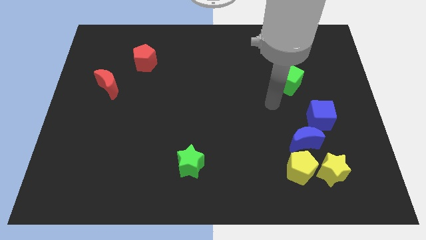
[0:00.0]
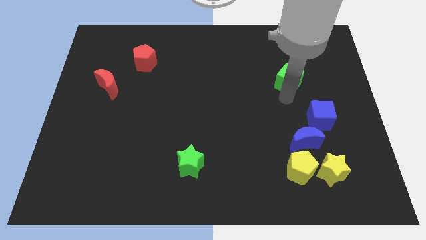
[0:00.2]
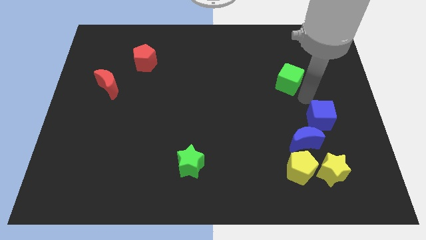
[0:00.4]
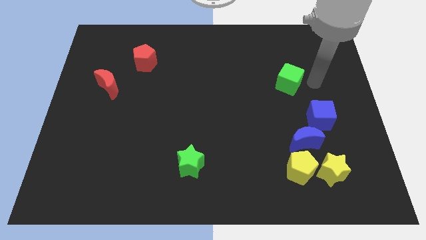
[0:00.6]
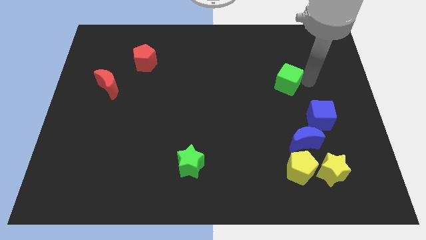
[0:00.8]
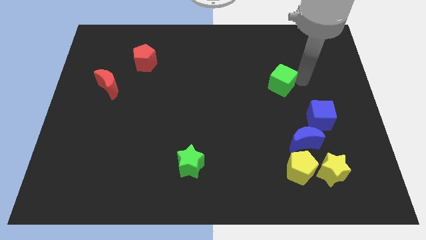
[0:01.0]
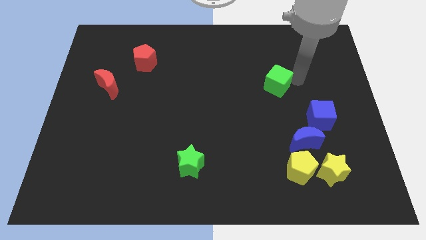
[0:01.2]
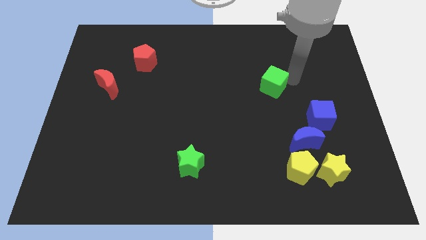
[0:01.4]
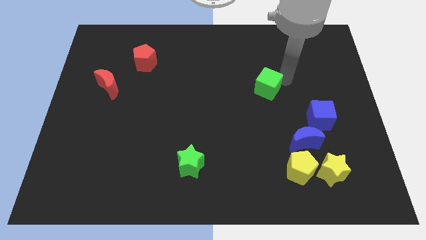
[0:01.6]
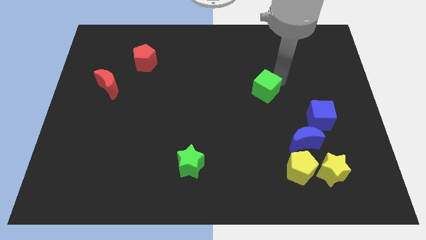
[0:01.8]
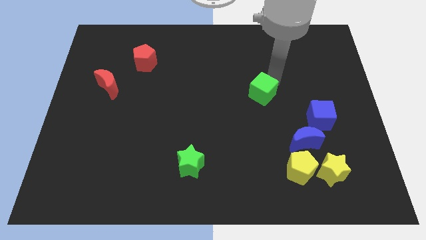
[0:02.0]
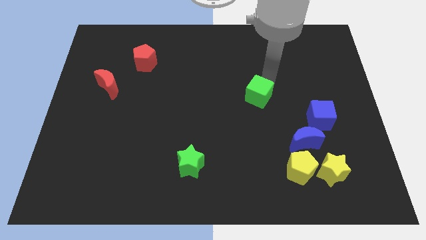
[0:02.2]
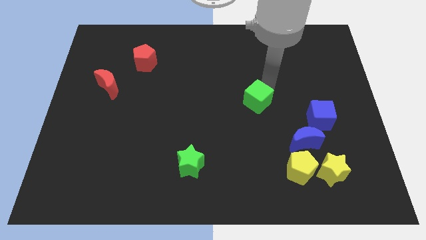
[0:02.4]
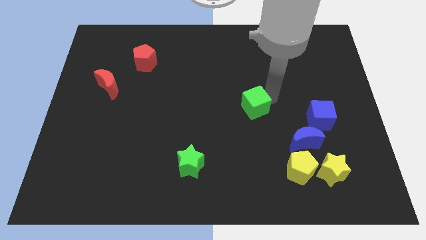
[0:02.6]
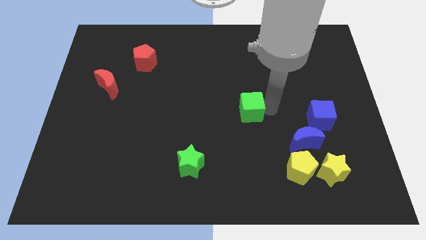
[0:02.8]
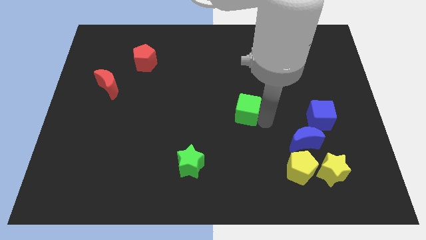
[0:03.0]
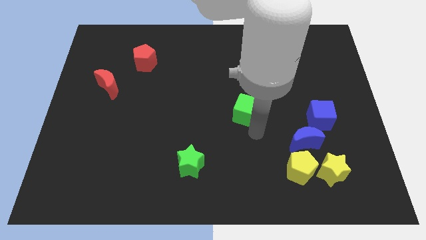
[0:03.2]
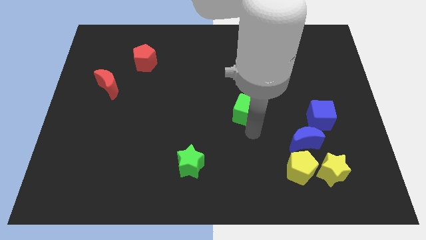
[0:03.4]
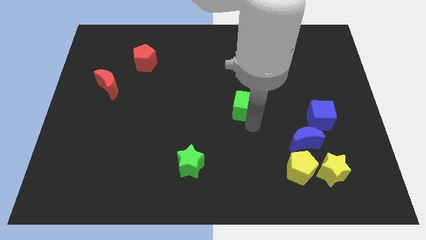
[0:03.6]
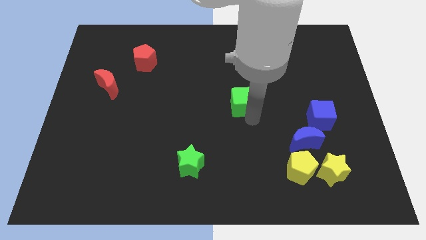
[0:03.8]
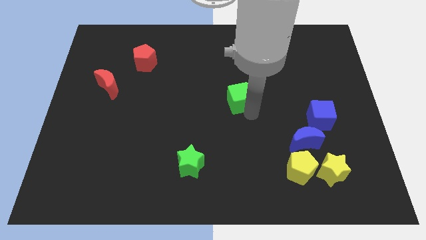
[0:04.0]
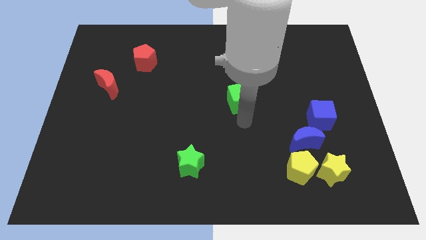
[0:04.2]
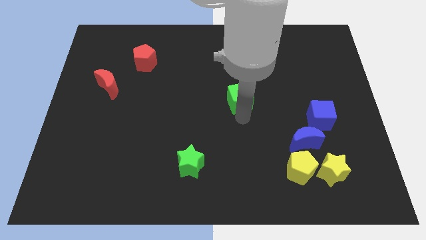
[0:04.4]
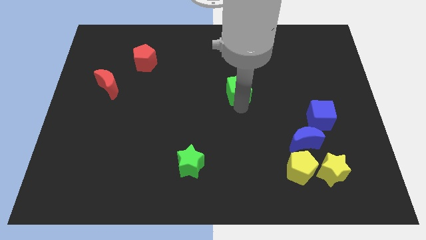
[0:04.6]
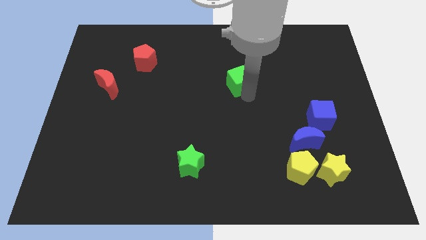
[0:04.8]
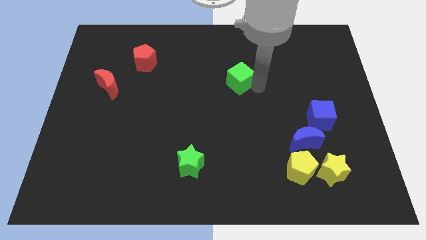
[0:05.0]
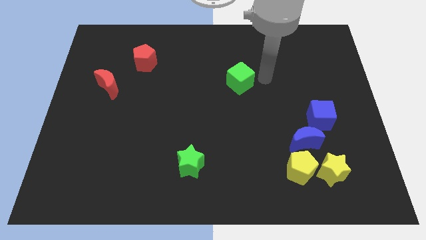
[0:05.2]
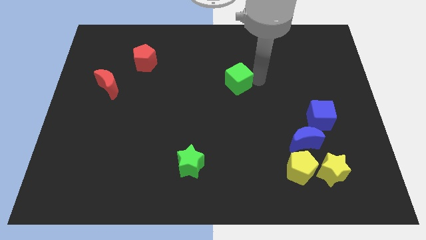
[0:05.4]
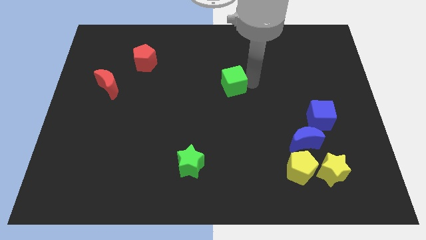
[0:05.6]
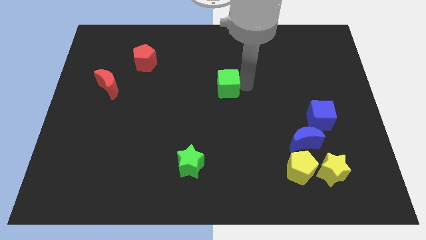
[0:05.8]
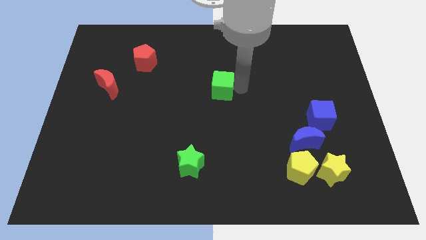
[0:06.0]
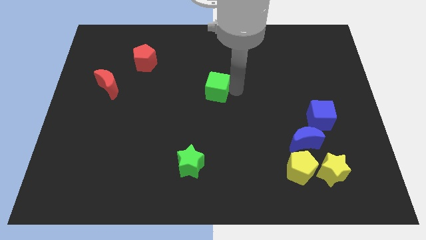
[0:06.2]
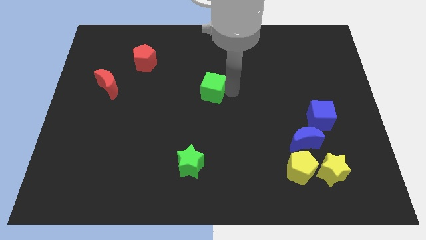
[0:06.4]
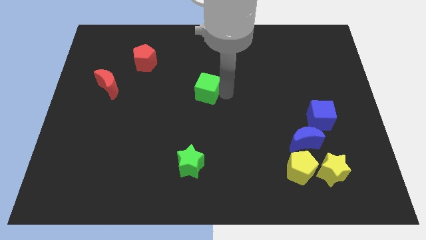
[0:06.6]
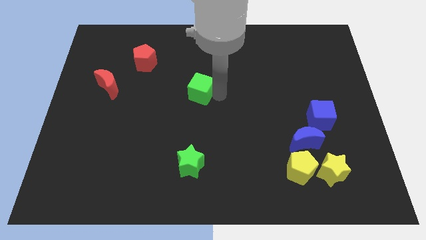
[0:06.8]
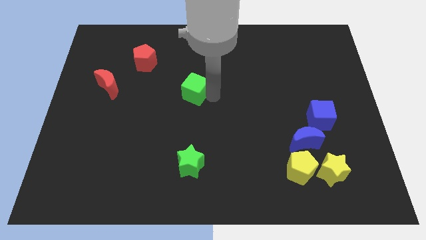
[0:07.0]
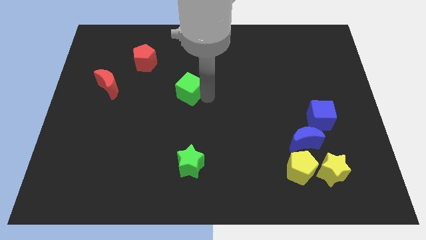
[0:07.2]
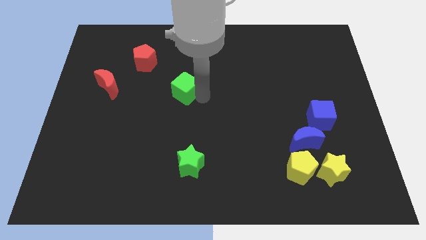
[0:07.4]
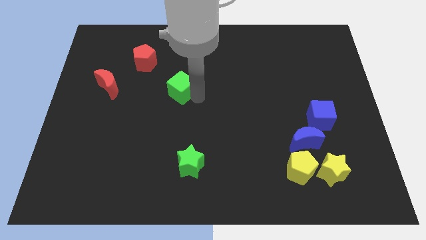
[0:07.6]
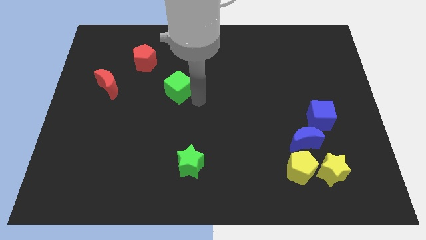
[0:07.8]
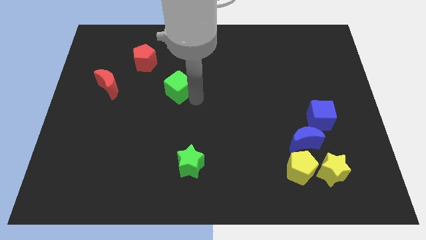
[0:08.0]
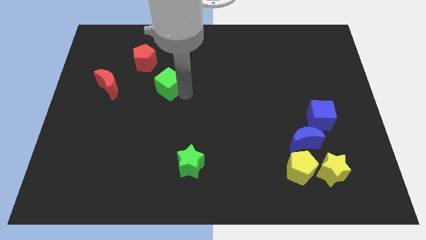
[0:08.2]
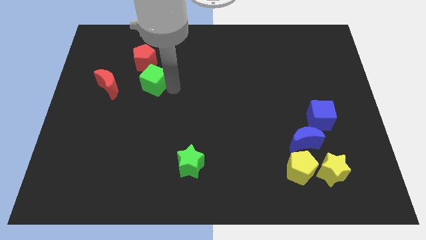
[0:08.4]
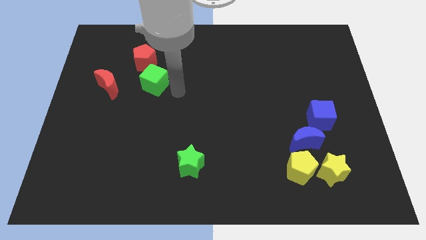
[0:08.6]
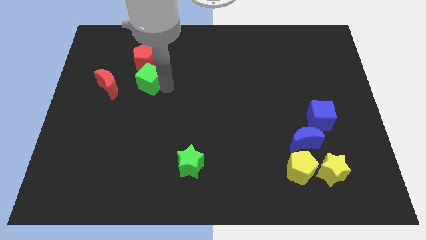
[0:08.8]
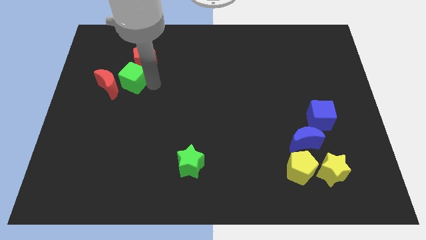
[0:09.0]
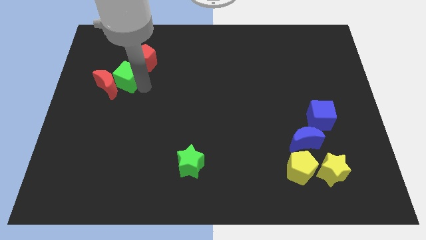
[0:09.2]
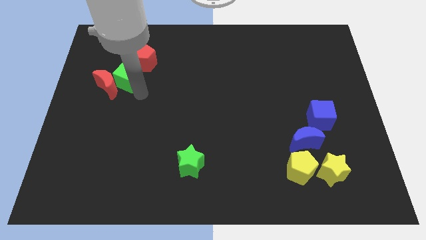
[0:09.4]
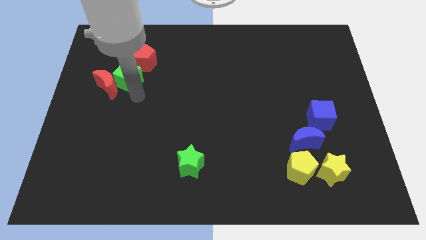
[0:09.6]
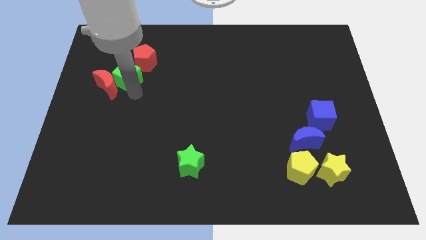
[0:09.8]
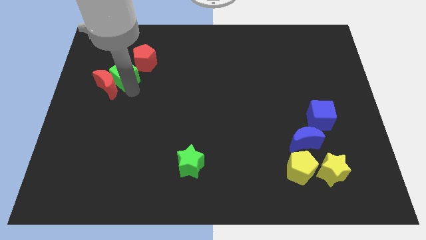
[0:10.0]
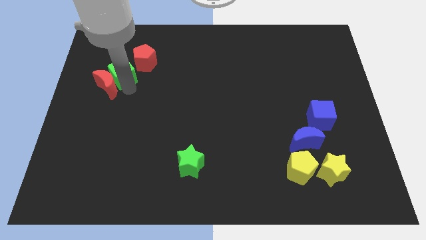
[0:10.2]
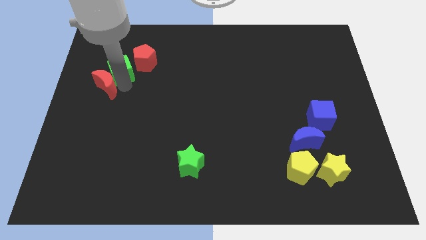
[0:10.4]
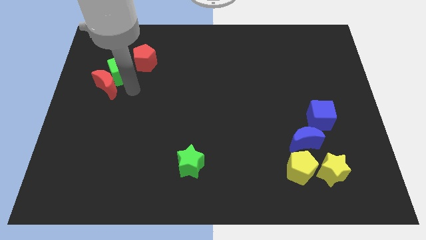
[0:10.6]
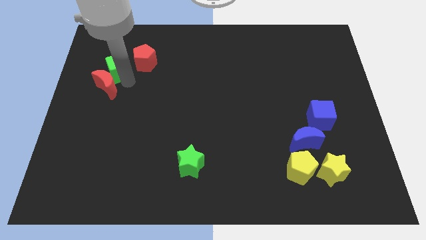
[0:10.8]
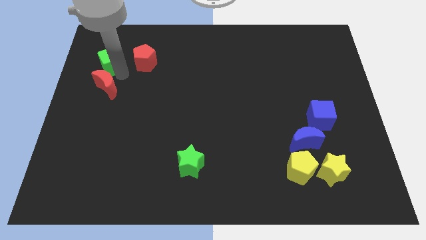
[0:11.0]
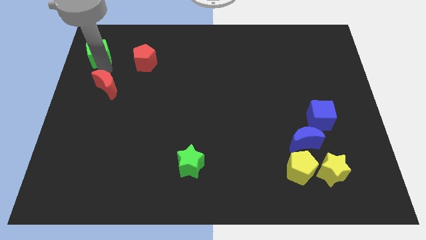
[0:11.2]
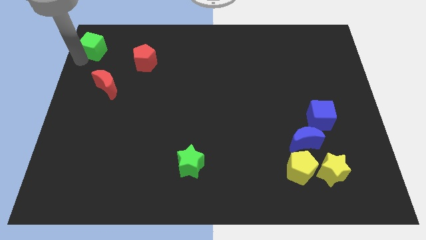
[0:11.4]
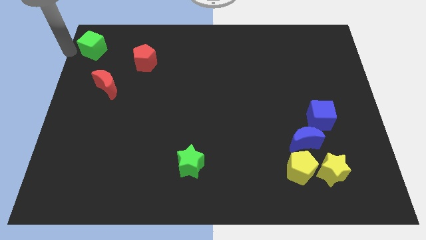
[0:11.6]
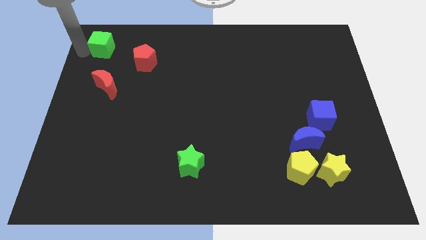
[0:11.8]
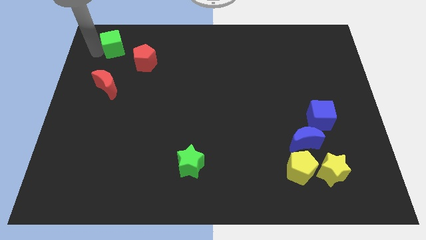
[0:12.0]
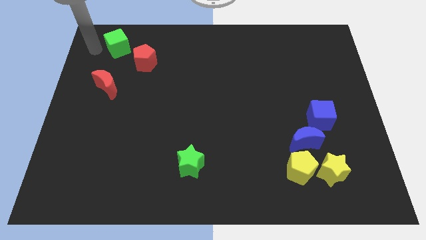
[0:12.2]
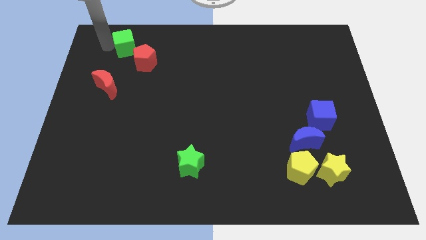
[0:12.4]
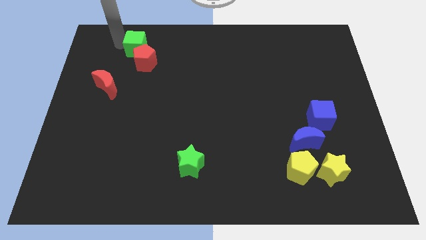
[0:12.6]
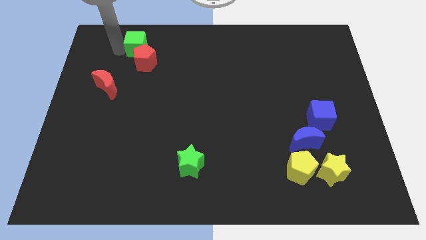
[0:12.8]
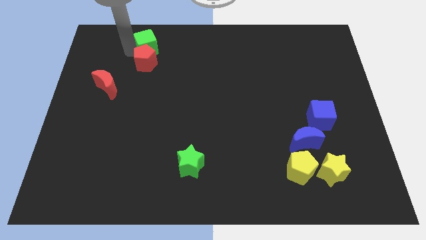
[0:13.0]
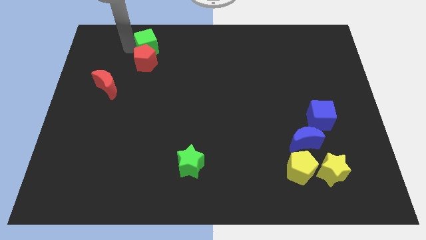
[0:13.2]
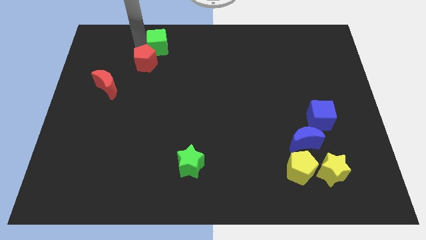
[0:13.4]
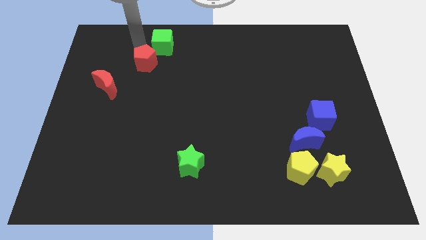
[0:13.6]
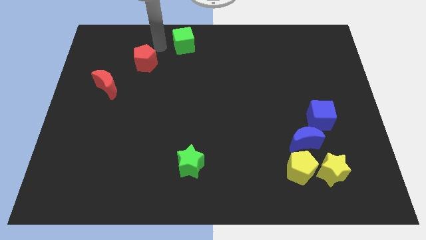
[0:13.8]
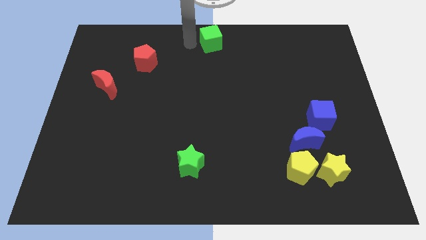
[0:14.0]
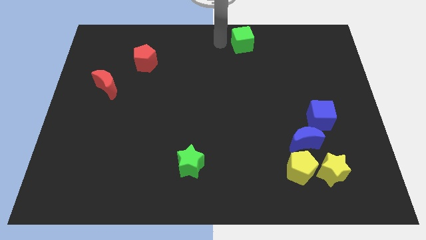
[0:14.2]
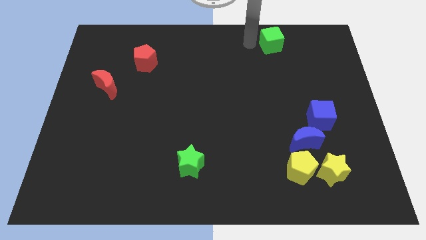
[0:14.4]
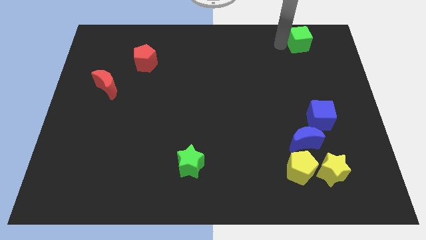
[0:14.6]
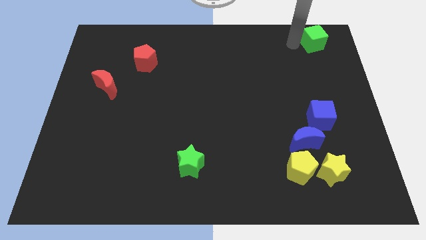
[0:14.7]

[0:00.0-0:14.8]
slide the green cube to the upper right corner
